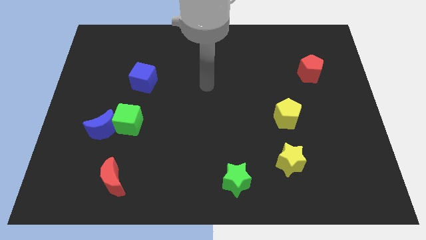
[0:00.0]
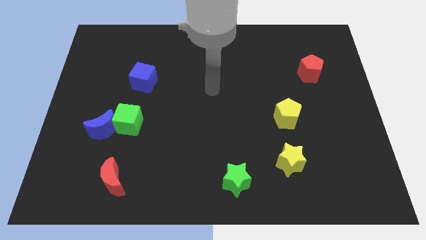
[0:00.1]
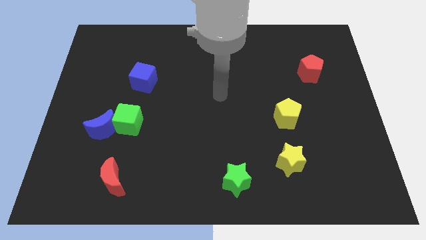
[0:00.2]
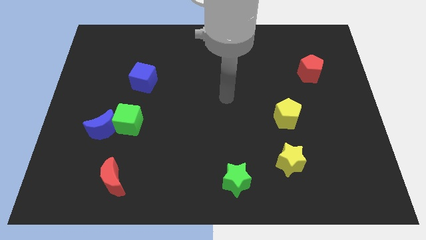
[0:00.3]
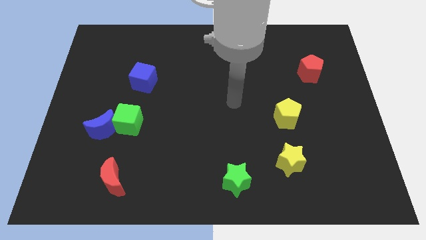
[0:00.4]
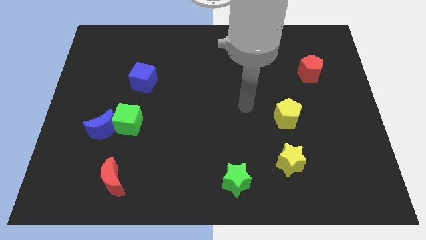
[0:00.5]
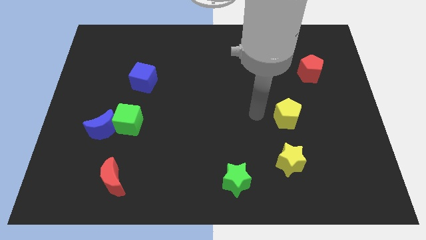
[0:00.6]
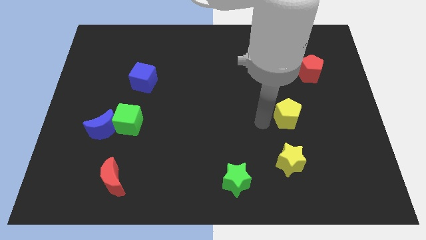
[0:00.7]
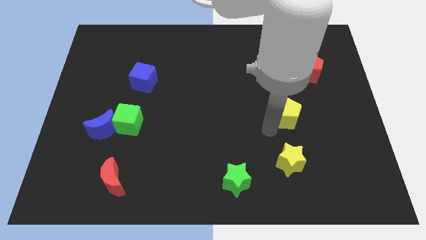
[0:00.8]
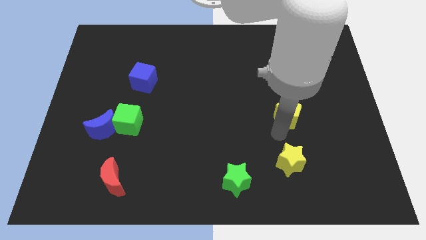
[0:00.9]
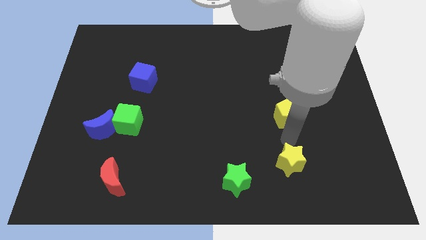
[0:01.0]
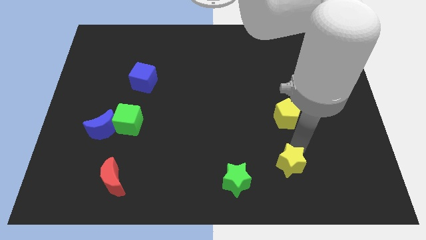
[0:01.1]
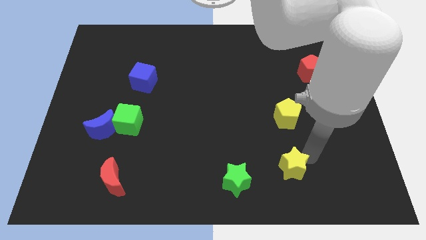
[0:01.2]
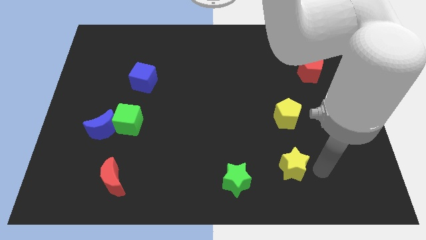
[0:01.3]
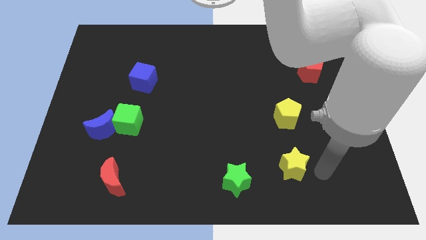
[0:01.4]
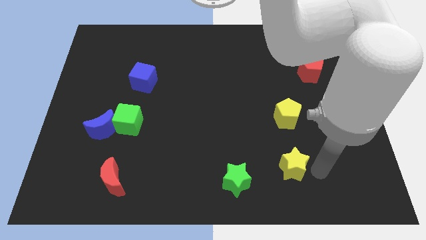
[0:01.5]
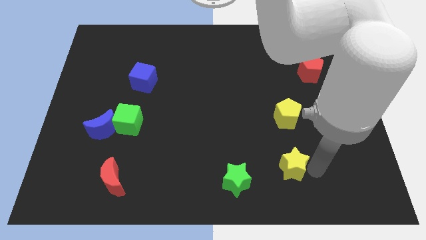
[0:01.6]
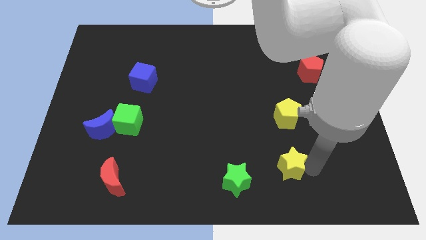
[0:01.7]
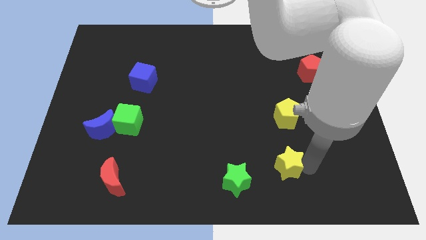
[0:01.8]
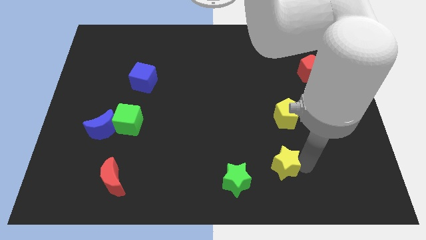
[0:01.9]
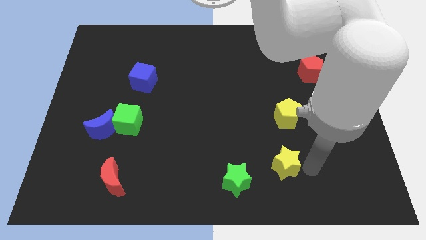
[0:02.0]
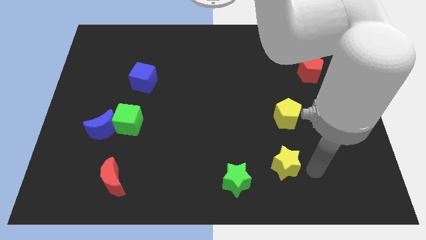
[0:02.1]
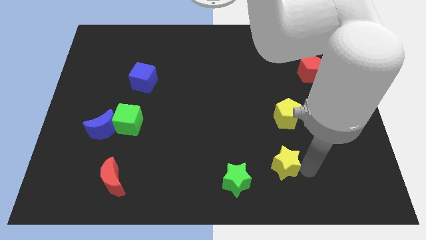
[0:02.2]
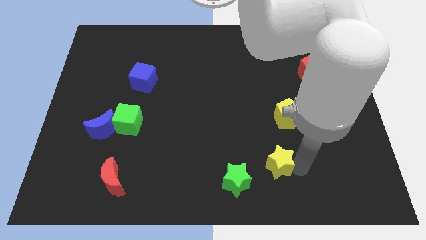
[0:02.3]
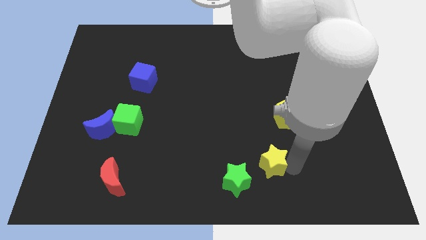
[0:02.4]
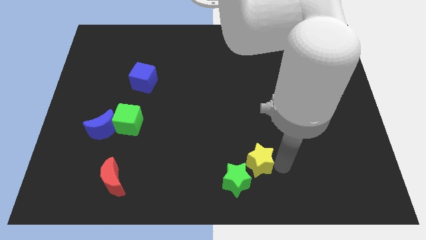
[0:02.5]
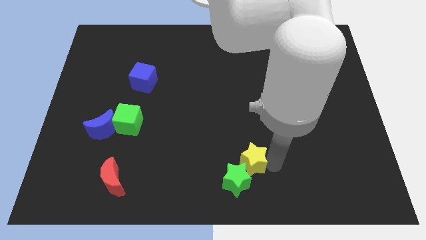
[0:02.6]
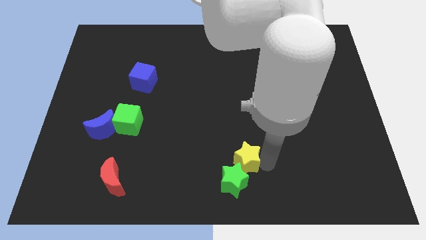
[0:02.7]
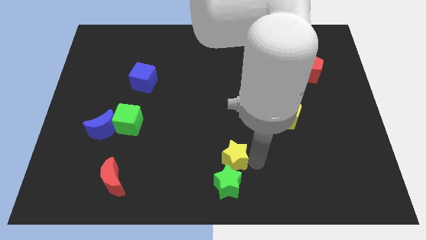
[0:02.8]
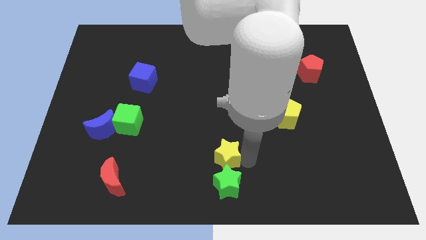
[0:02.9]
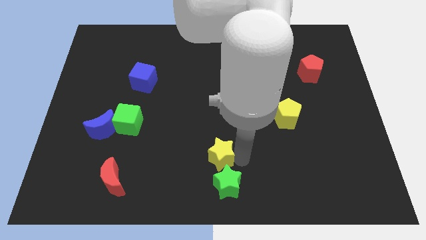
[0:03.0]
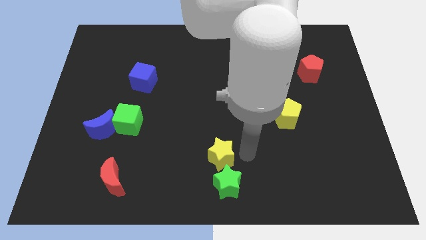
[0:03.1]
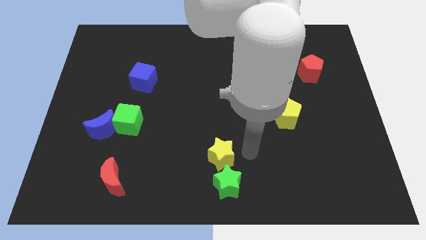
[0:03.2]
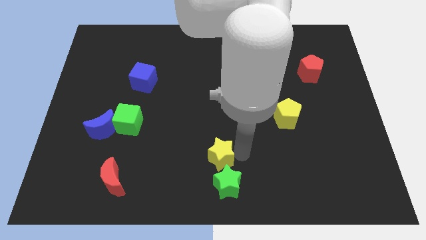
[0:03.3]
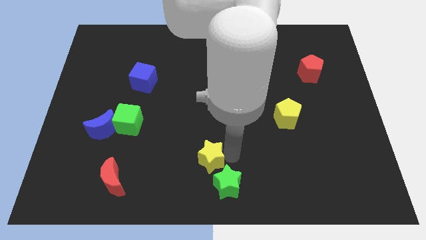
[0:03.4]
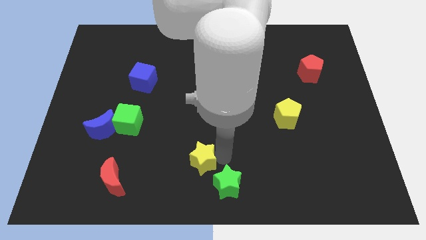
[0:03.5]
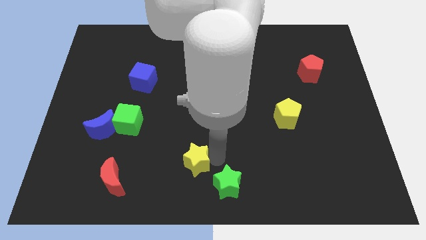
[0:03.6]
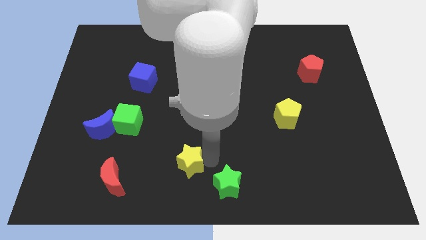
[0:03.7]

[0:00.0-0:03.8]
slide the yellow star to the left

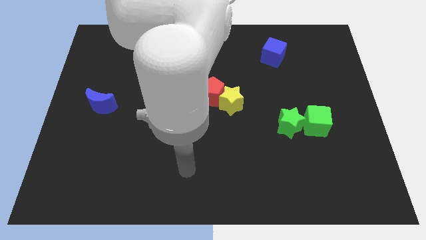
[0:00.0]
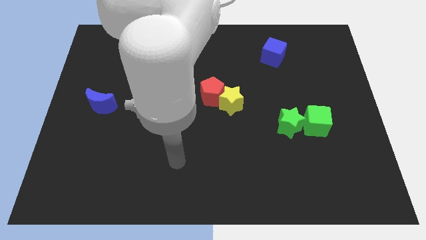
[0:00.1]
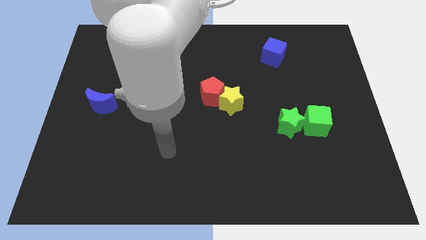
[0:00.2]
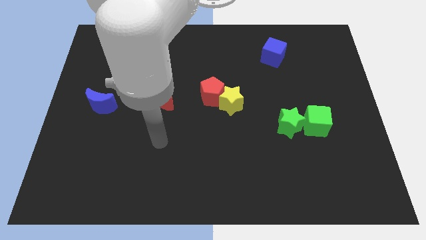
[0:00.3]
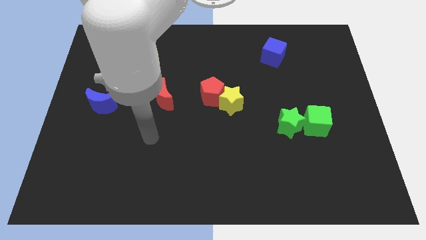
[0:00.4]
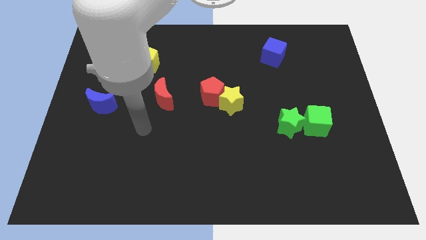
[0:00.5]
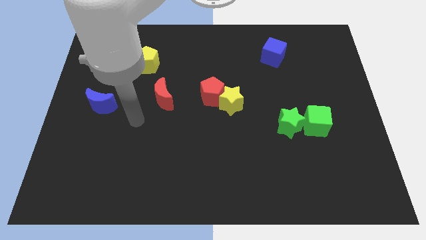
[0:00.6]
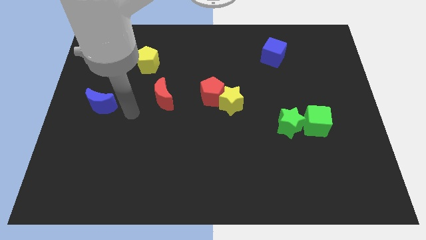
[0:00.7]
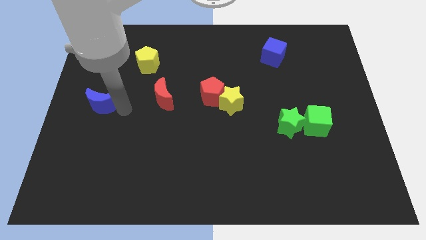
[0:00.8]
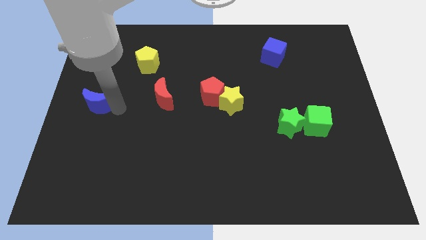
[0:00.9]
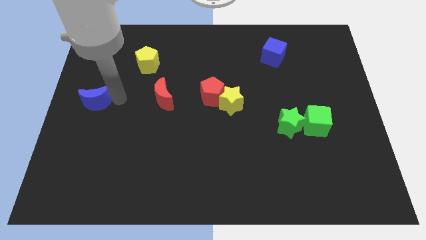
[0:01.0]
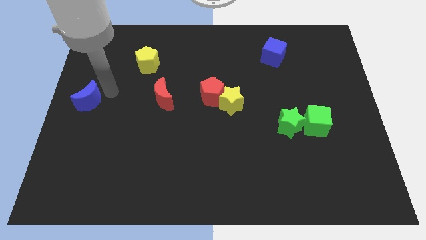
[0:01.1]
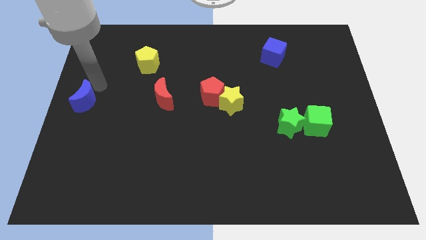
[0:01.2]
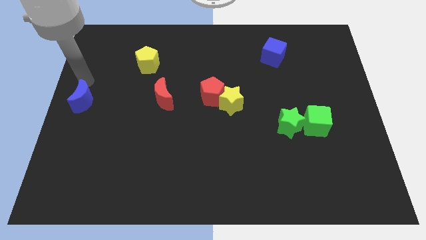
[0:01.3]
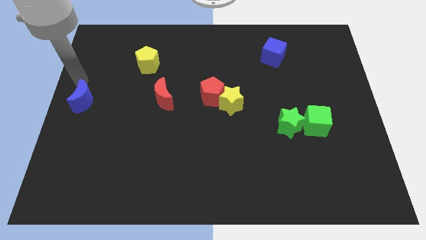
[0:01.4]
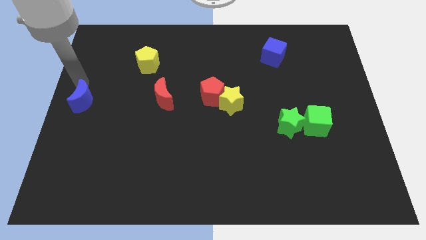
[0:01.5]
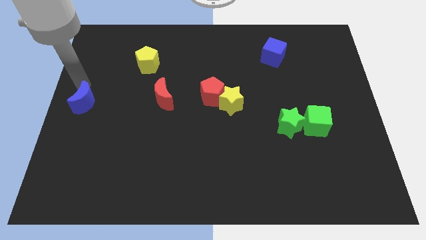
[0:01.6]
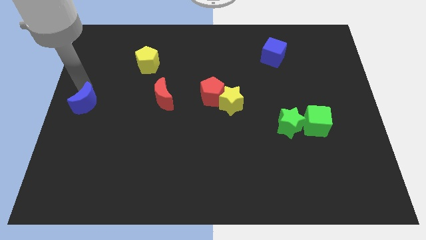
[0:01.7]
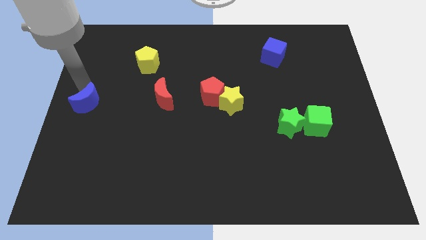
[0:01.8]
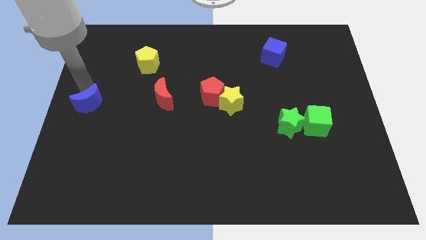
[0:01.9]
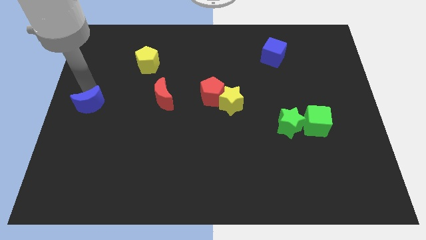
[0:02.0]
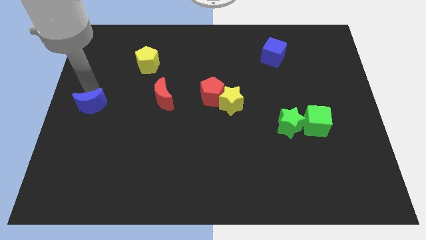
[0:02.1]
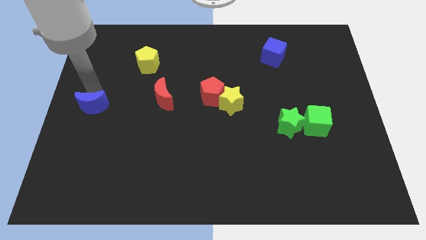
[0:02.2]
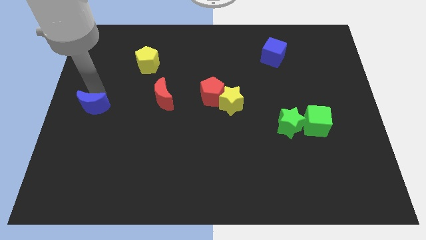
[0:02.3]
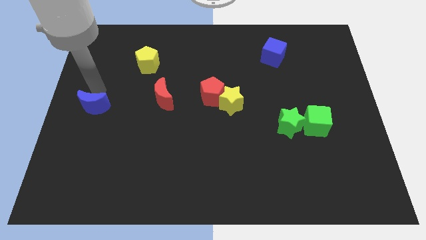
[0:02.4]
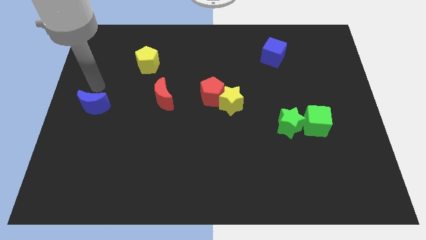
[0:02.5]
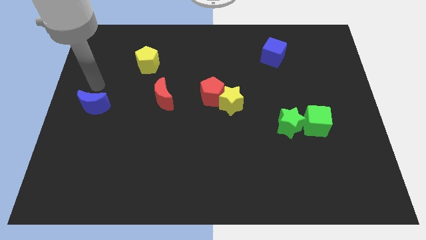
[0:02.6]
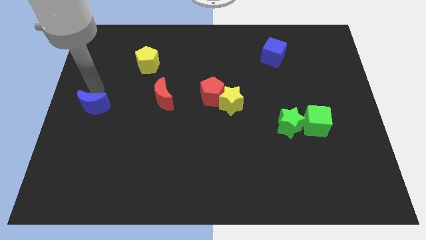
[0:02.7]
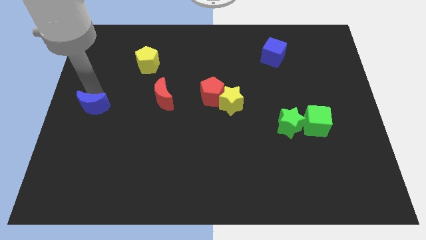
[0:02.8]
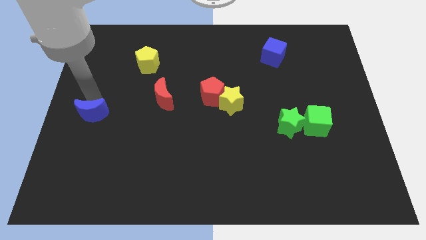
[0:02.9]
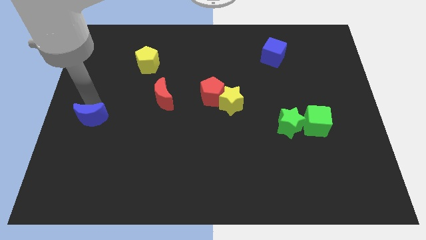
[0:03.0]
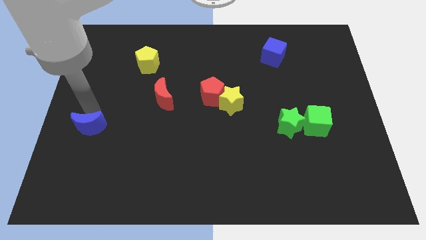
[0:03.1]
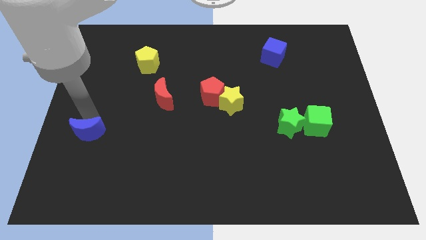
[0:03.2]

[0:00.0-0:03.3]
slightly slide the blue moon down

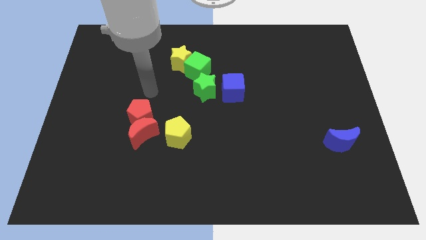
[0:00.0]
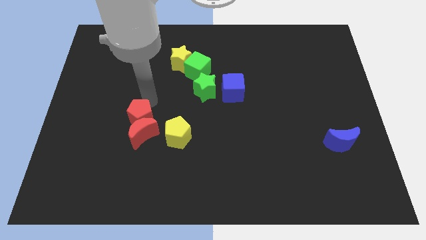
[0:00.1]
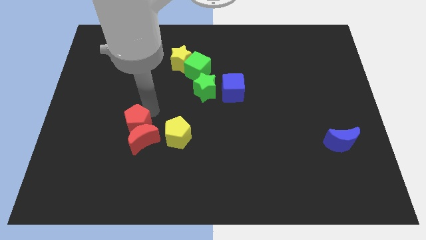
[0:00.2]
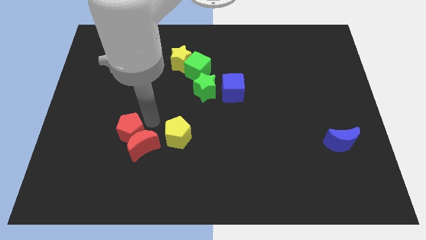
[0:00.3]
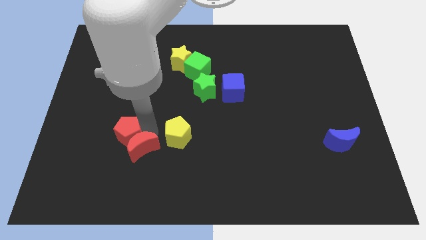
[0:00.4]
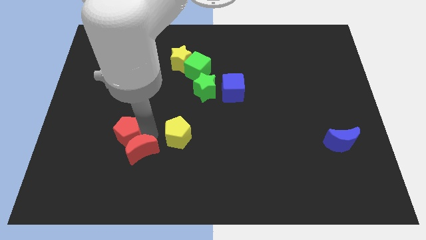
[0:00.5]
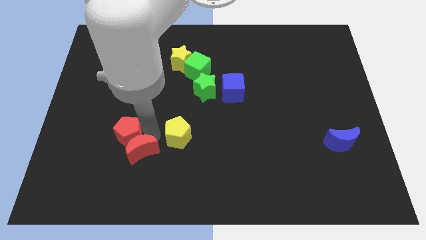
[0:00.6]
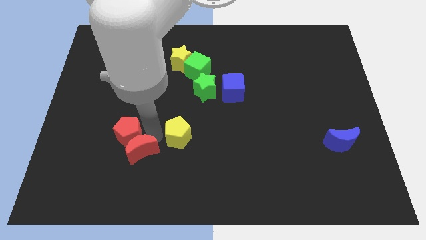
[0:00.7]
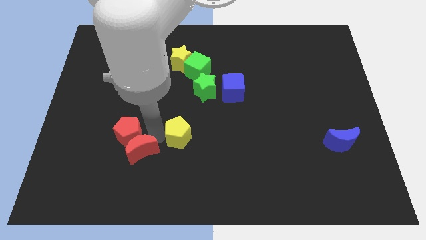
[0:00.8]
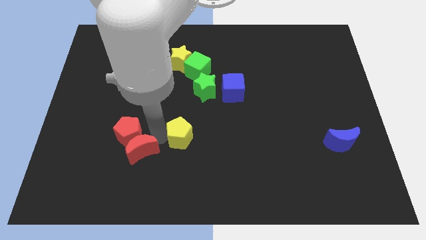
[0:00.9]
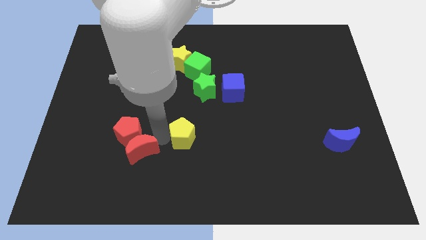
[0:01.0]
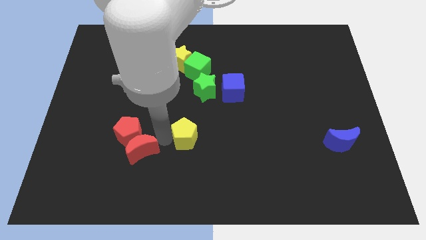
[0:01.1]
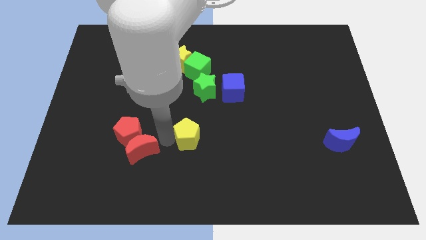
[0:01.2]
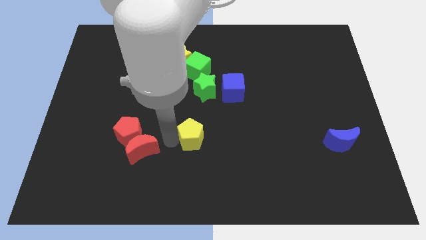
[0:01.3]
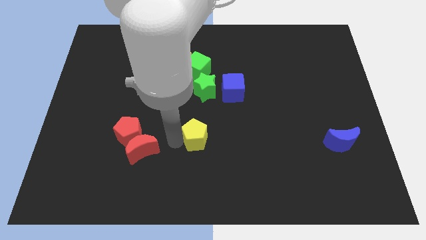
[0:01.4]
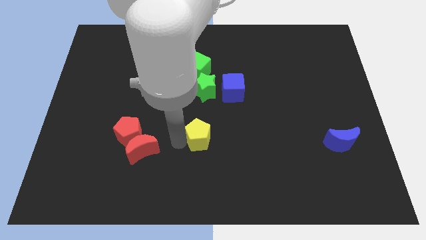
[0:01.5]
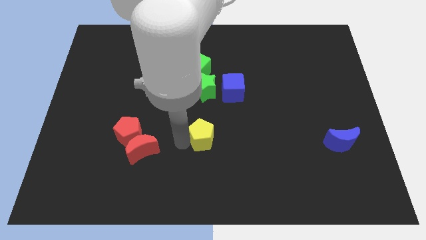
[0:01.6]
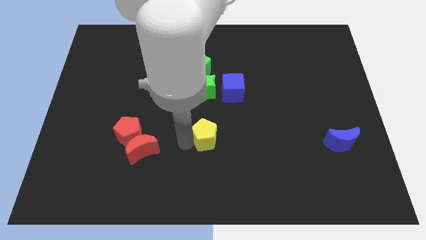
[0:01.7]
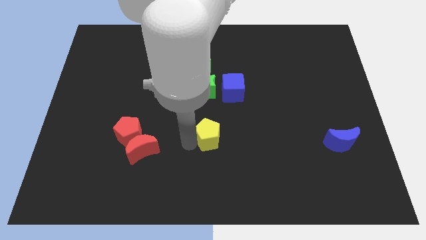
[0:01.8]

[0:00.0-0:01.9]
slide the yellow pentagon right a bit
